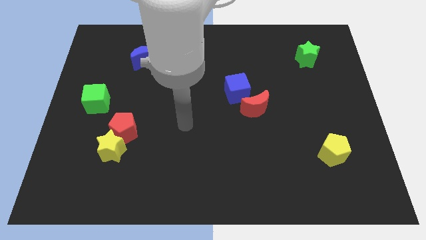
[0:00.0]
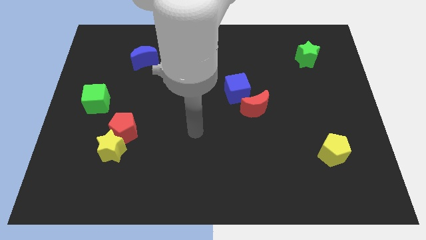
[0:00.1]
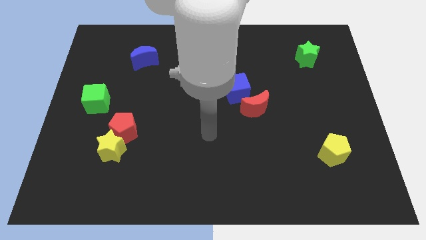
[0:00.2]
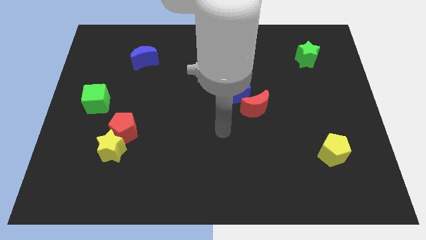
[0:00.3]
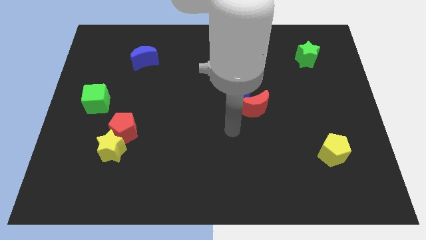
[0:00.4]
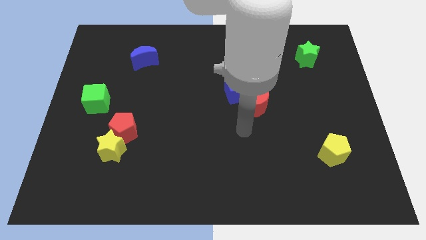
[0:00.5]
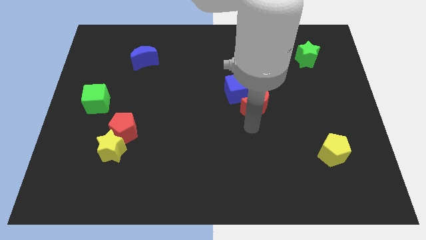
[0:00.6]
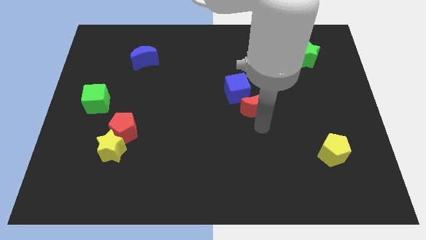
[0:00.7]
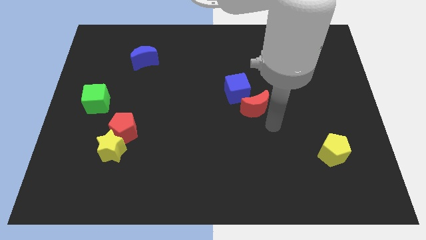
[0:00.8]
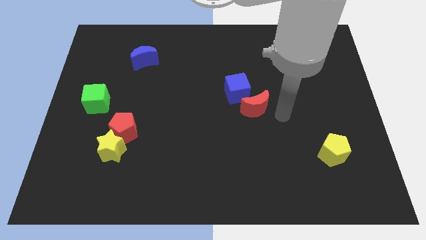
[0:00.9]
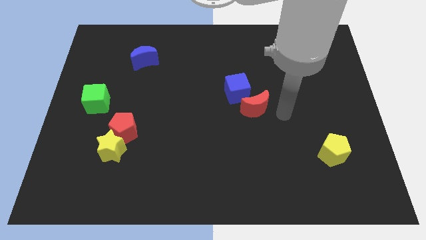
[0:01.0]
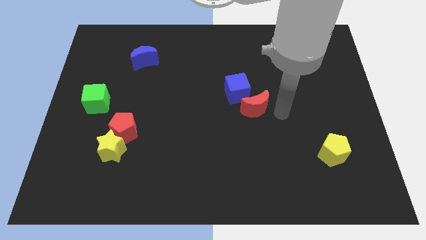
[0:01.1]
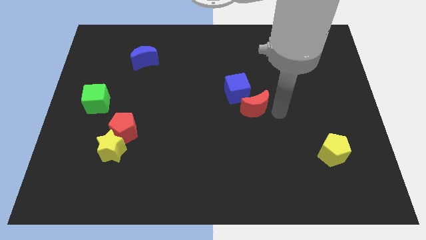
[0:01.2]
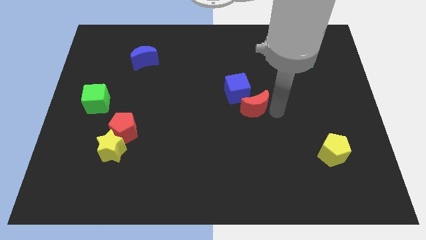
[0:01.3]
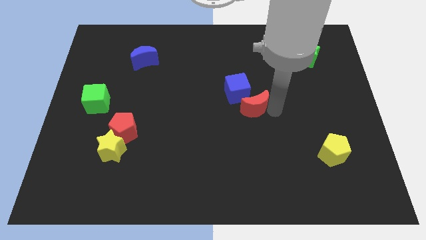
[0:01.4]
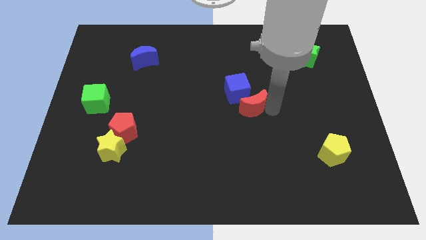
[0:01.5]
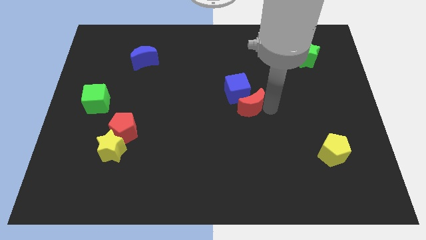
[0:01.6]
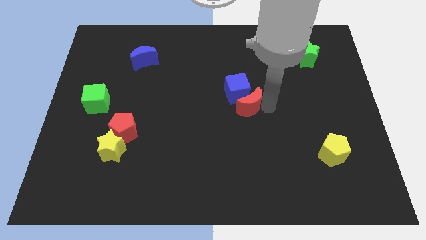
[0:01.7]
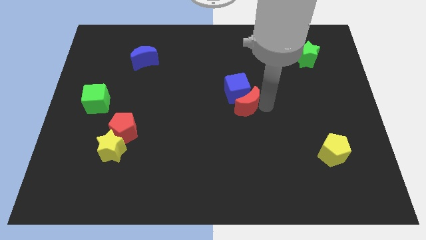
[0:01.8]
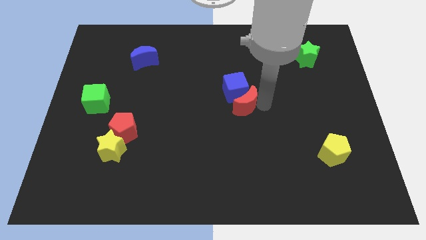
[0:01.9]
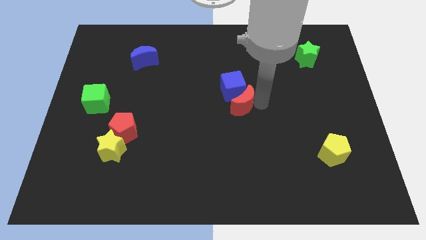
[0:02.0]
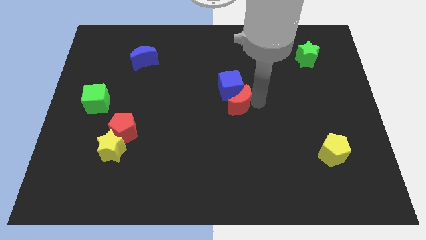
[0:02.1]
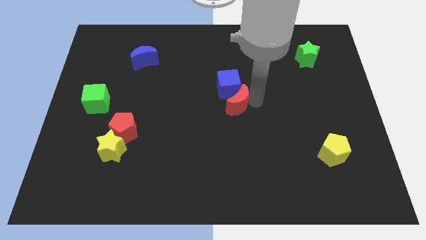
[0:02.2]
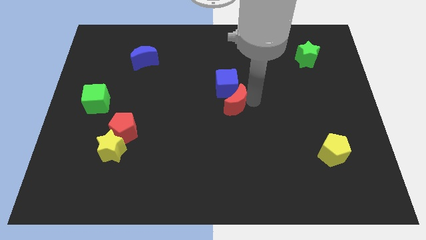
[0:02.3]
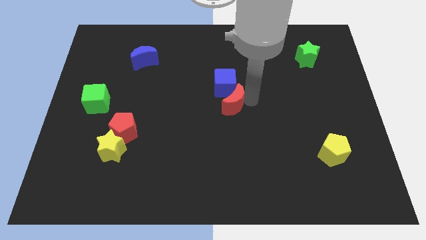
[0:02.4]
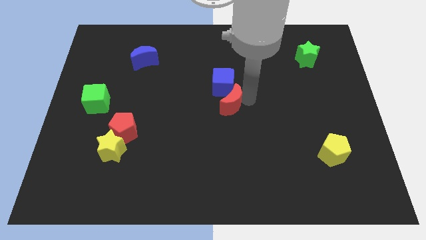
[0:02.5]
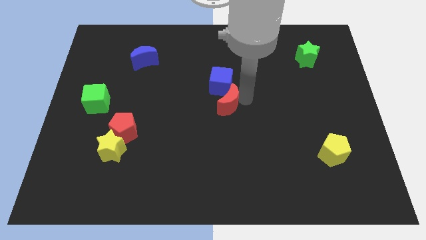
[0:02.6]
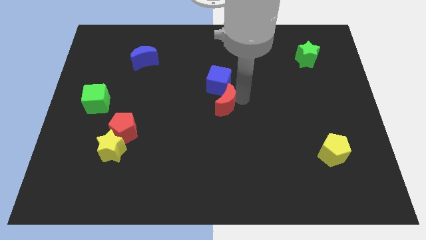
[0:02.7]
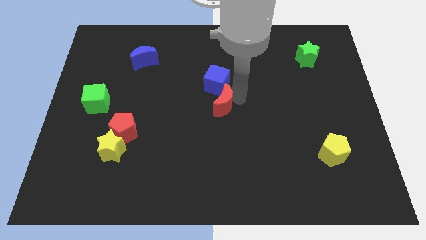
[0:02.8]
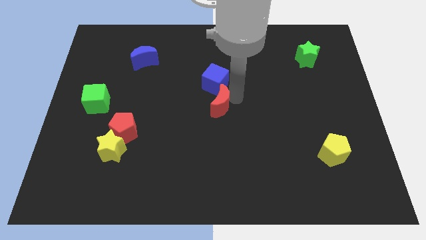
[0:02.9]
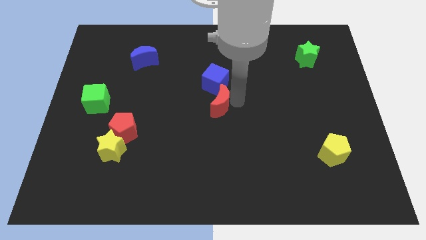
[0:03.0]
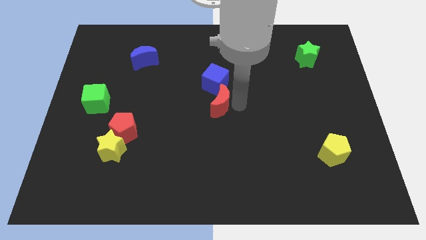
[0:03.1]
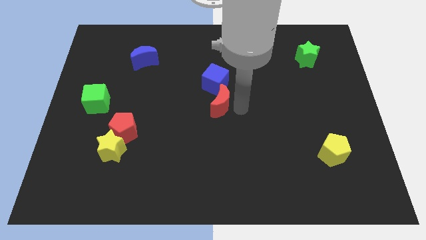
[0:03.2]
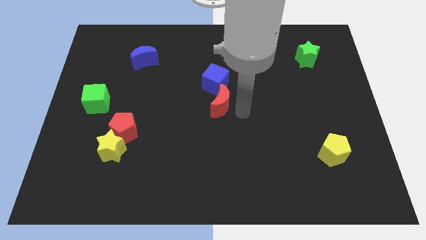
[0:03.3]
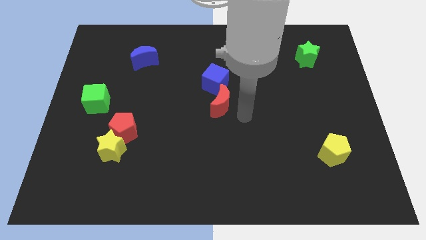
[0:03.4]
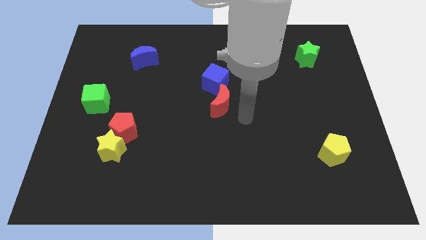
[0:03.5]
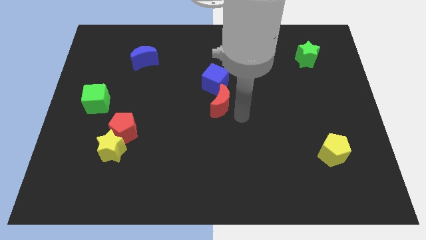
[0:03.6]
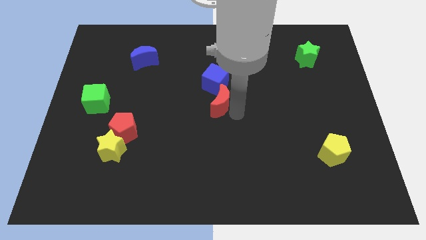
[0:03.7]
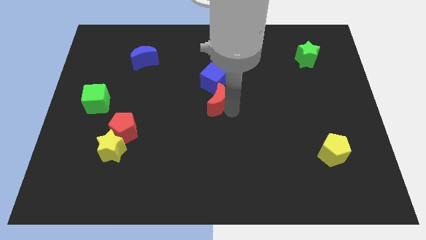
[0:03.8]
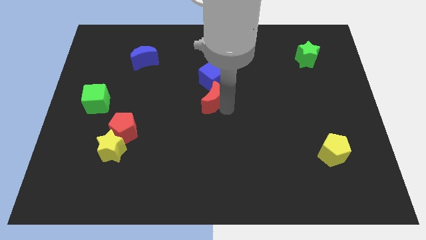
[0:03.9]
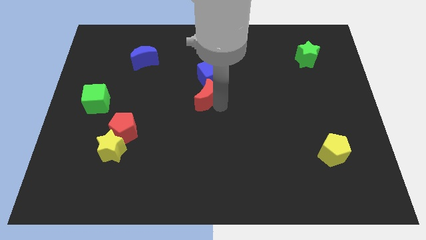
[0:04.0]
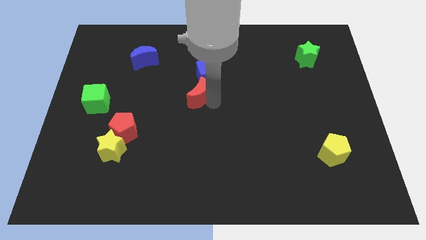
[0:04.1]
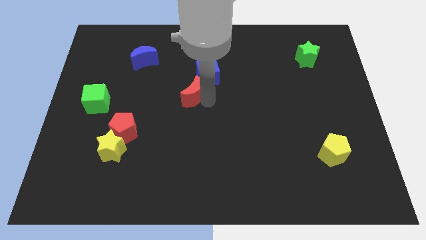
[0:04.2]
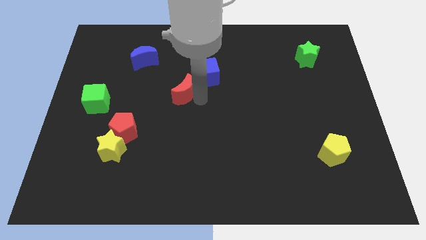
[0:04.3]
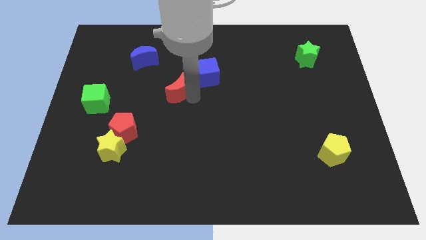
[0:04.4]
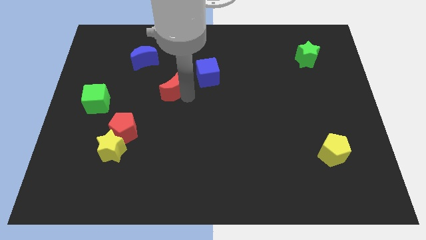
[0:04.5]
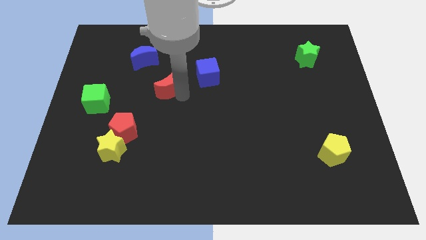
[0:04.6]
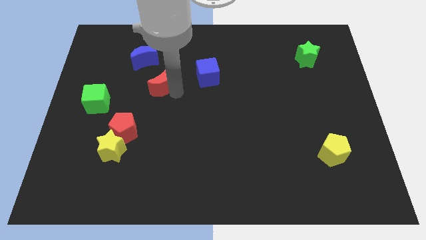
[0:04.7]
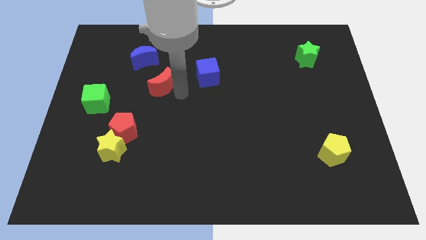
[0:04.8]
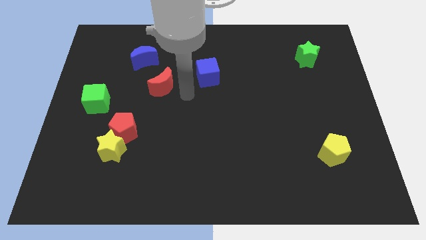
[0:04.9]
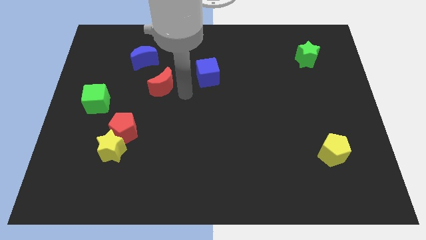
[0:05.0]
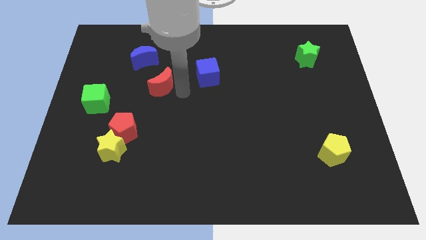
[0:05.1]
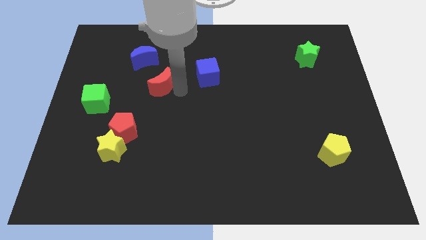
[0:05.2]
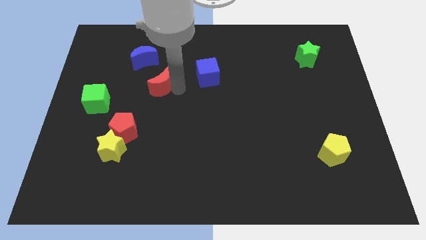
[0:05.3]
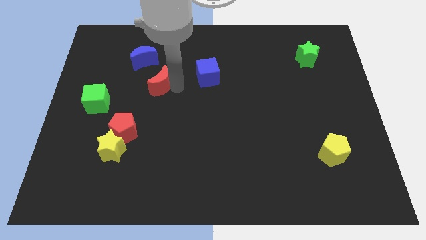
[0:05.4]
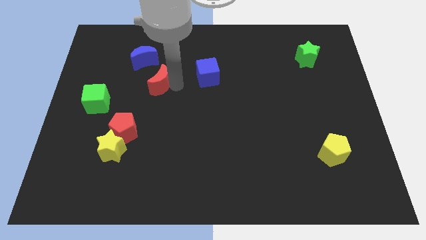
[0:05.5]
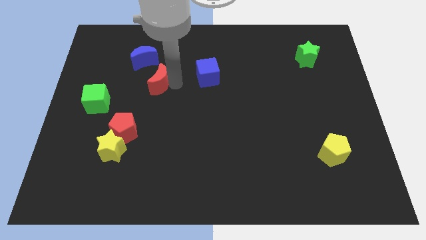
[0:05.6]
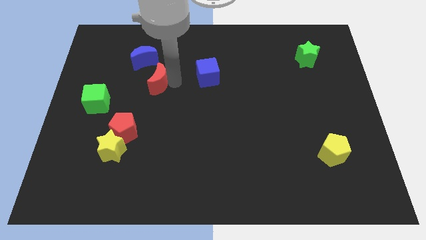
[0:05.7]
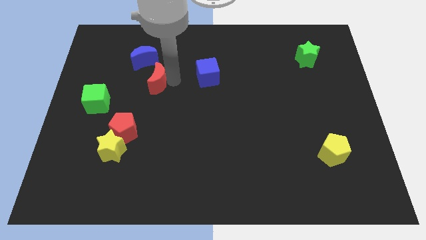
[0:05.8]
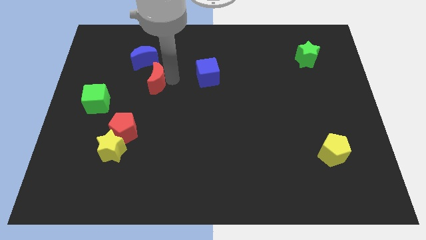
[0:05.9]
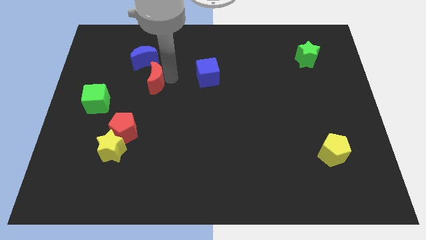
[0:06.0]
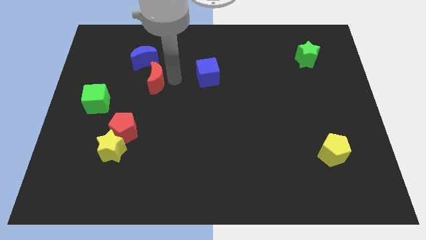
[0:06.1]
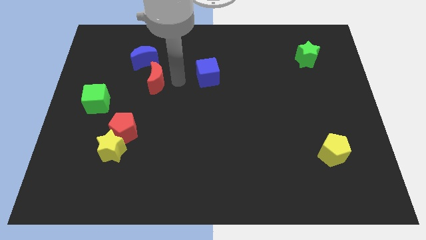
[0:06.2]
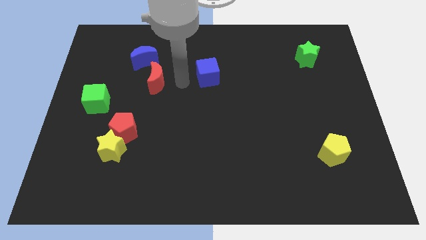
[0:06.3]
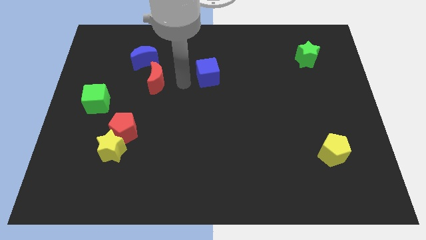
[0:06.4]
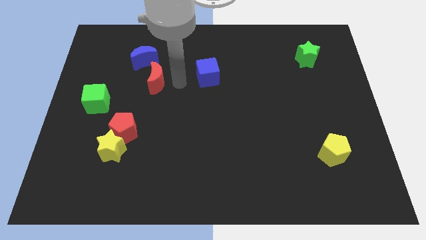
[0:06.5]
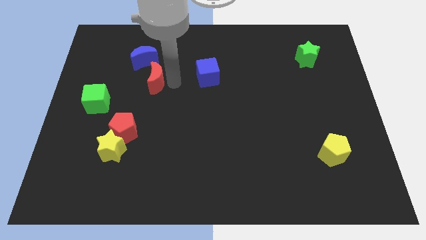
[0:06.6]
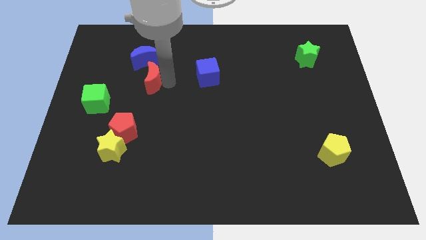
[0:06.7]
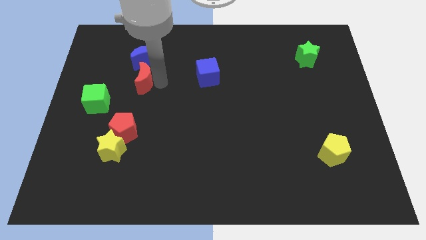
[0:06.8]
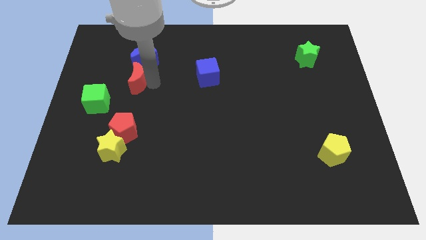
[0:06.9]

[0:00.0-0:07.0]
move the red moon diagonally down and to the left of the blue moon

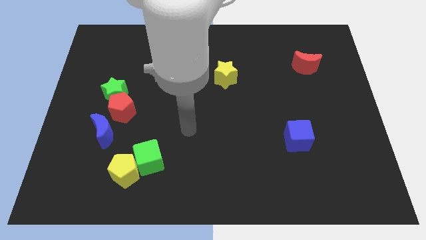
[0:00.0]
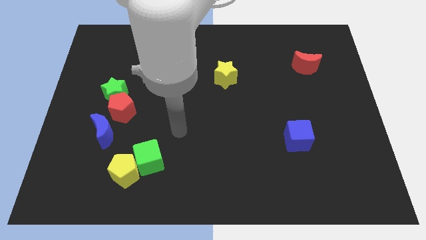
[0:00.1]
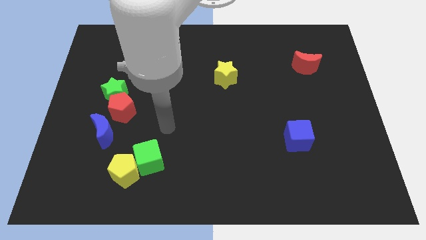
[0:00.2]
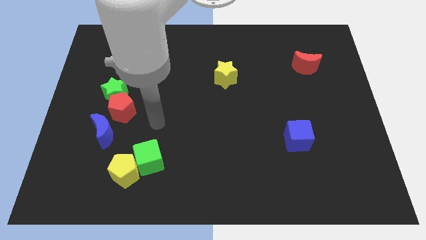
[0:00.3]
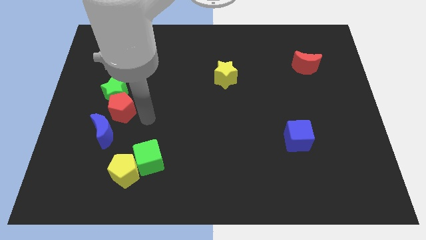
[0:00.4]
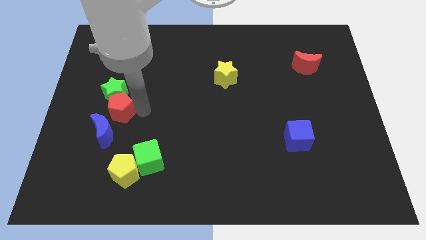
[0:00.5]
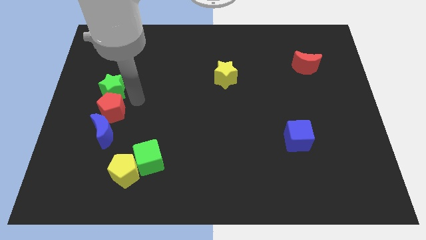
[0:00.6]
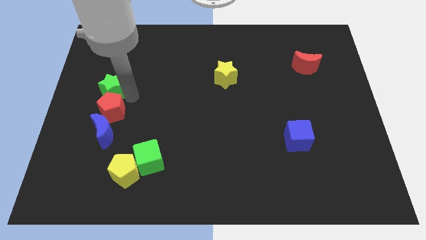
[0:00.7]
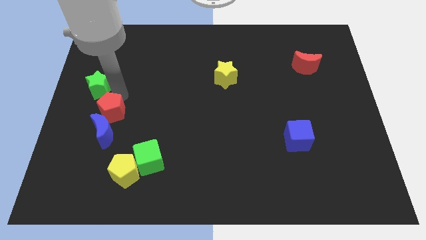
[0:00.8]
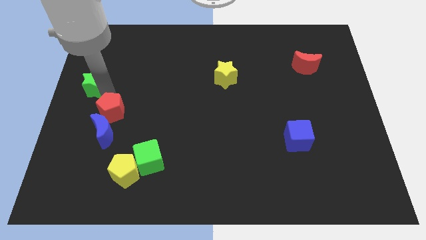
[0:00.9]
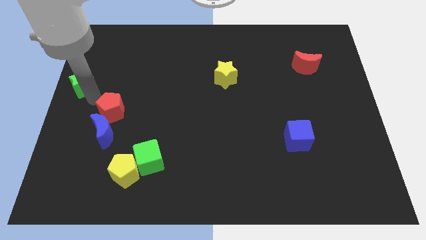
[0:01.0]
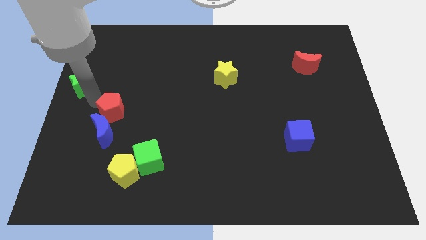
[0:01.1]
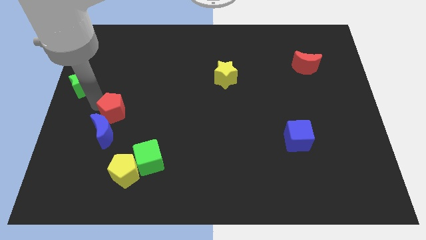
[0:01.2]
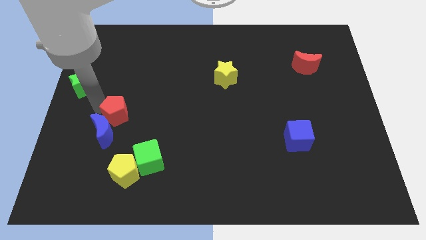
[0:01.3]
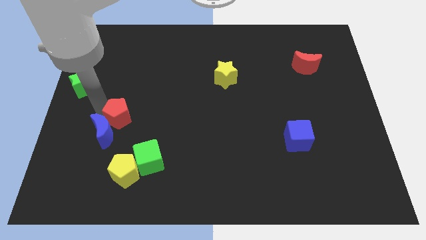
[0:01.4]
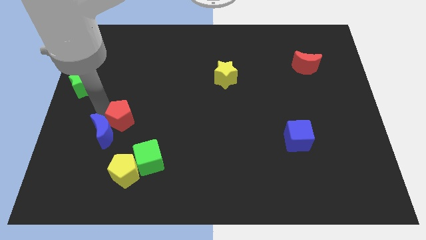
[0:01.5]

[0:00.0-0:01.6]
push the red pentagon right of the blue moon
